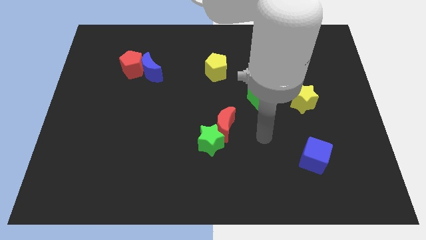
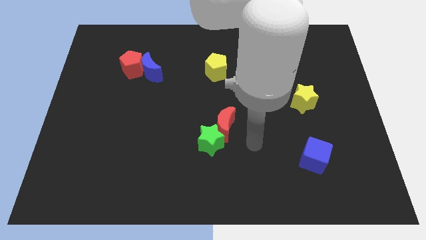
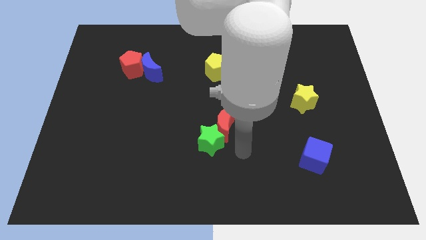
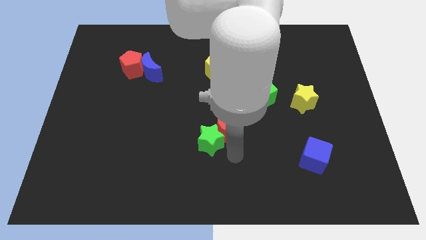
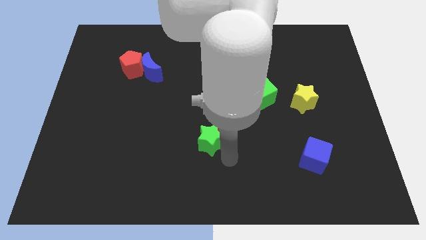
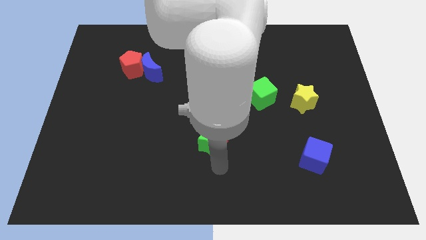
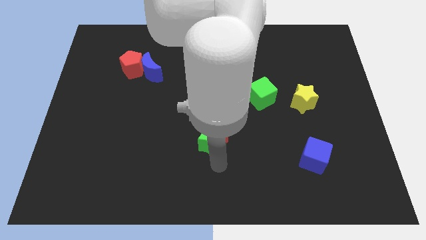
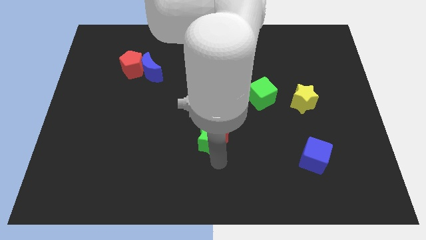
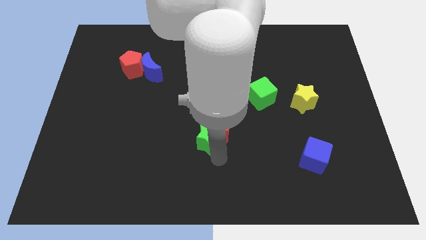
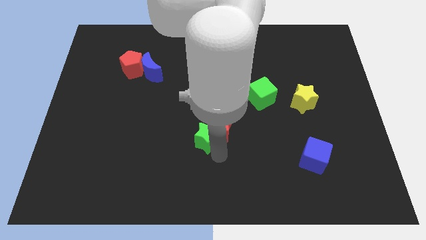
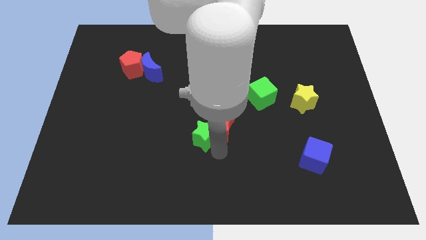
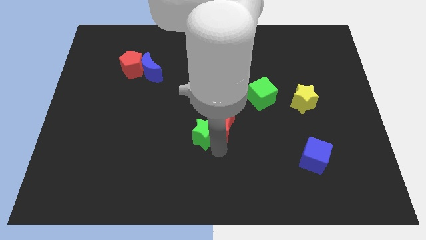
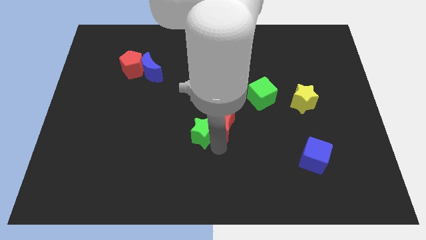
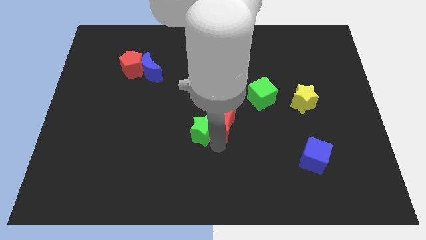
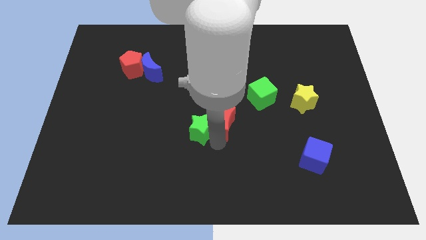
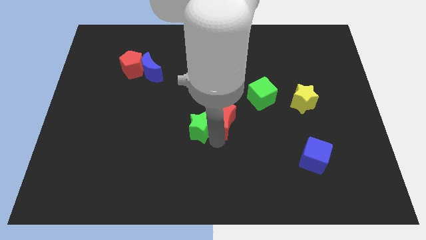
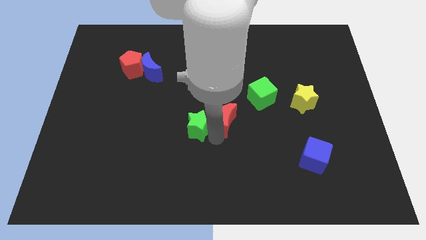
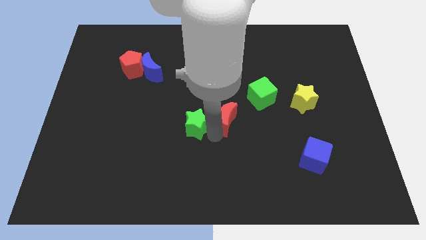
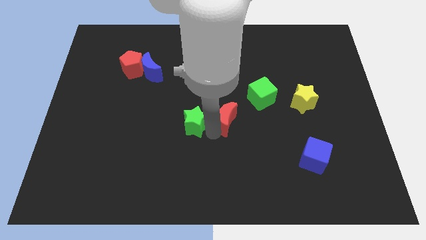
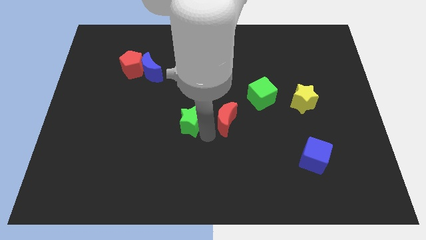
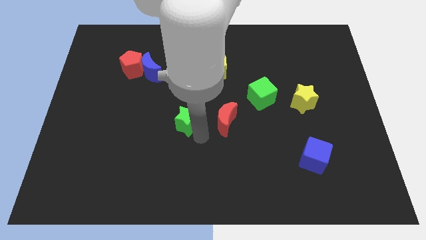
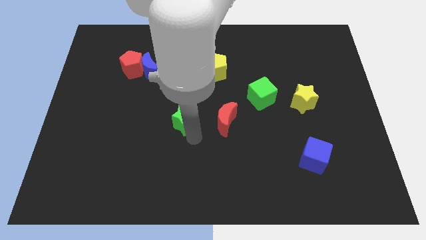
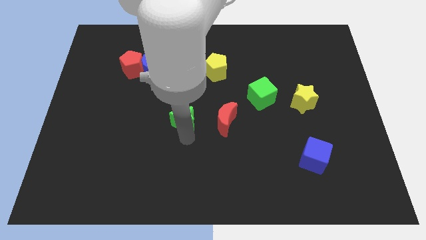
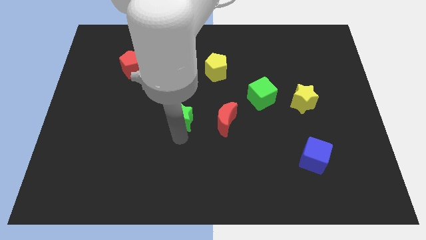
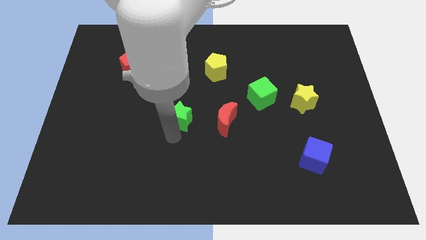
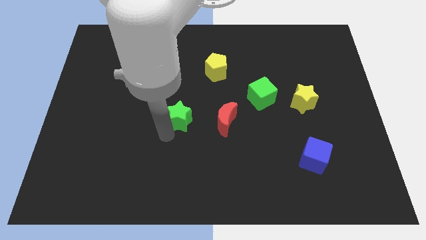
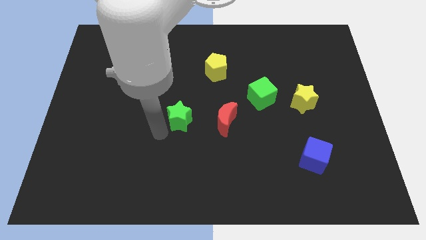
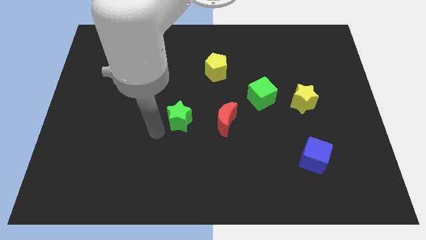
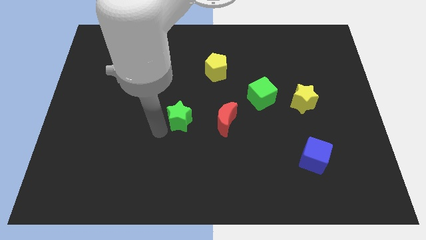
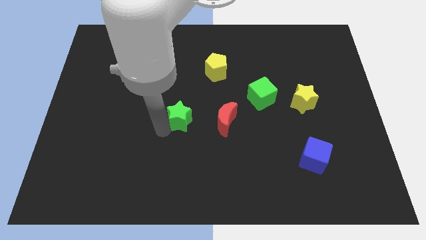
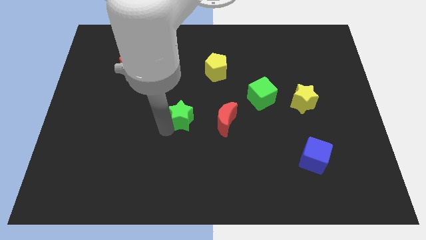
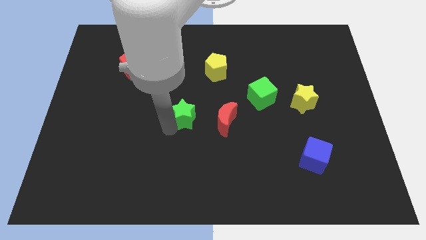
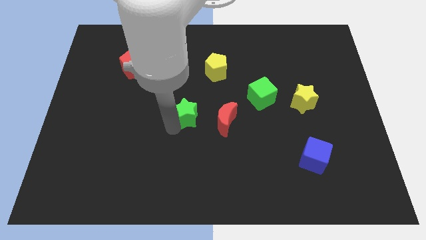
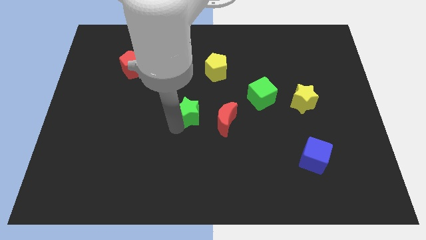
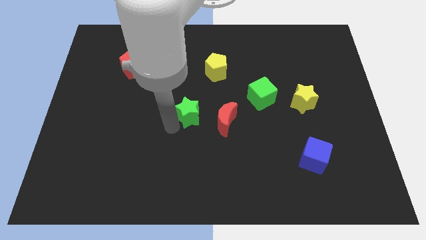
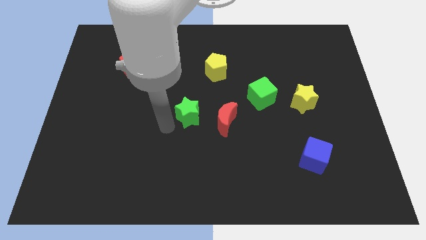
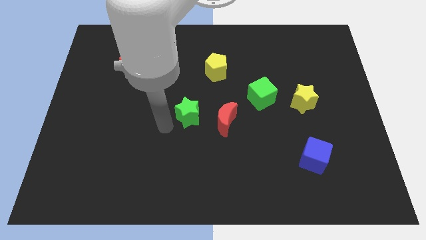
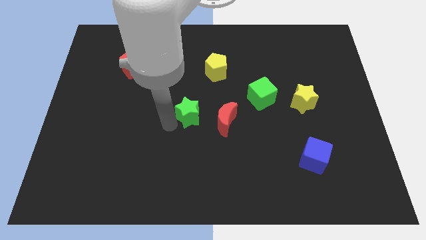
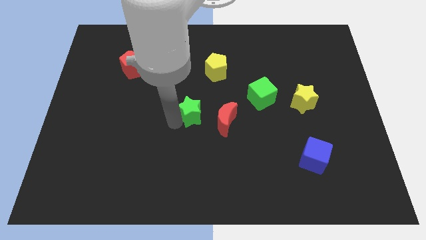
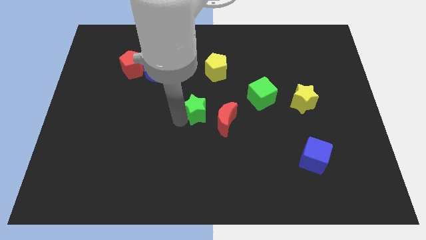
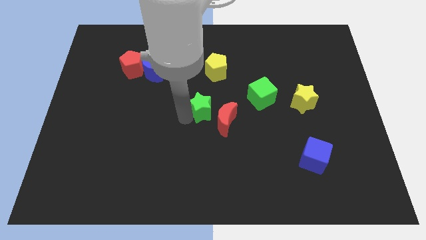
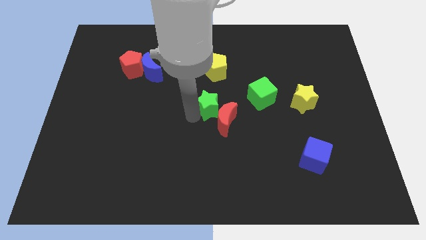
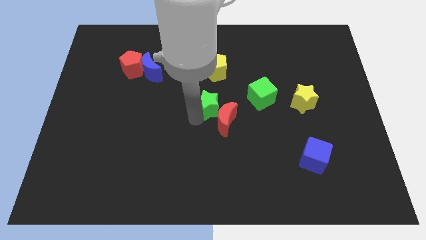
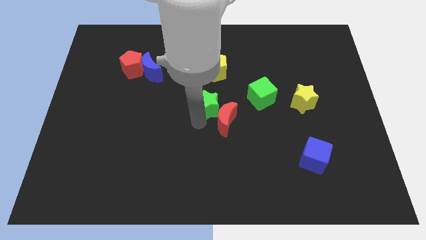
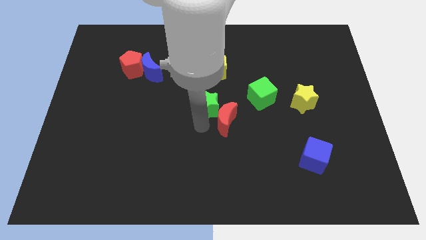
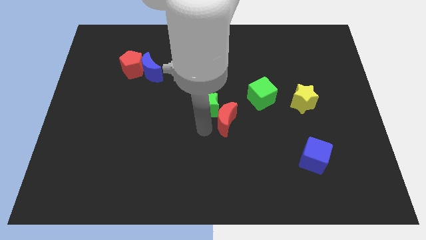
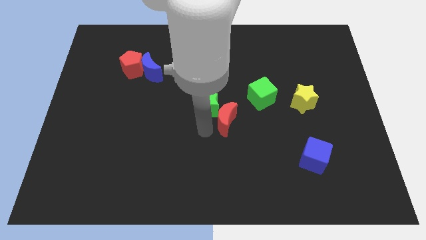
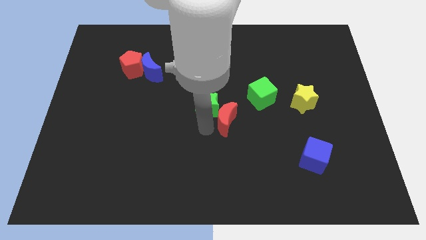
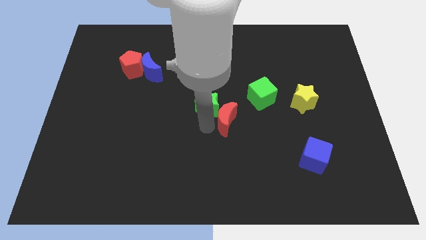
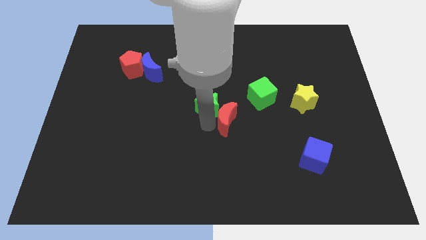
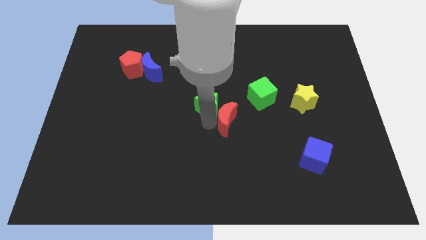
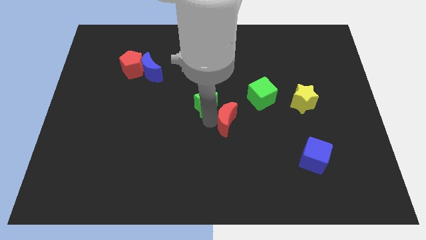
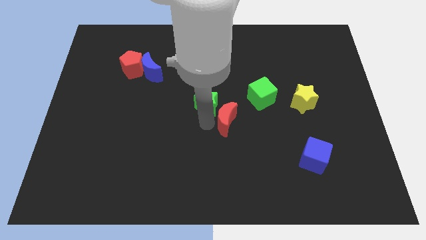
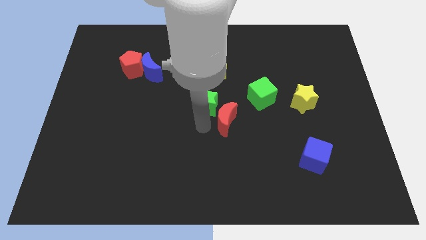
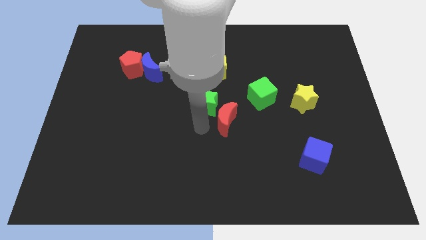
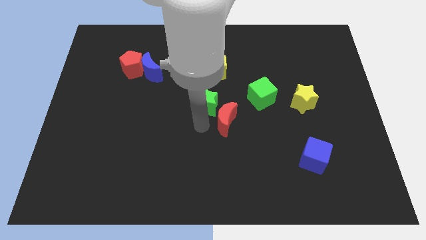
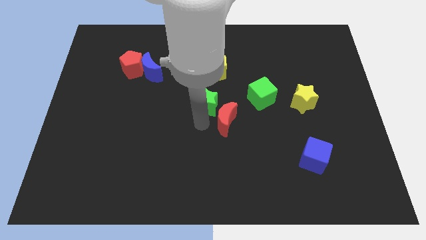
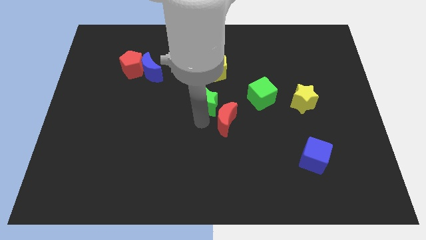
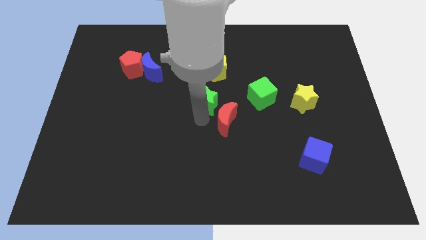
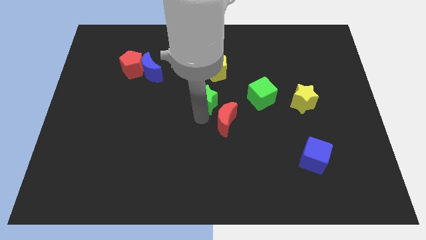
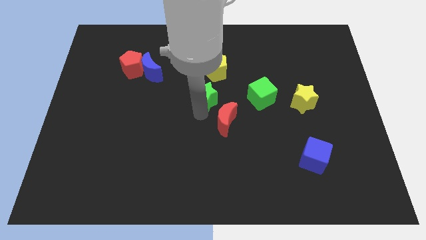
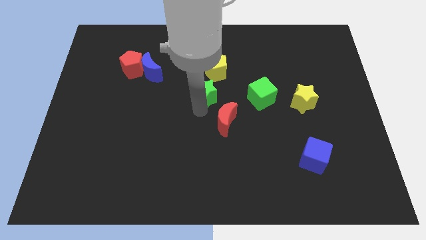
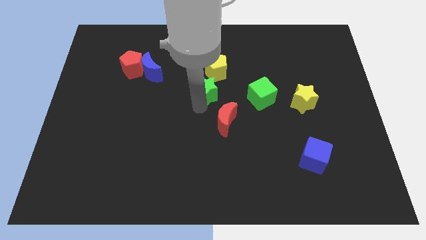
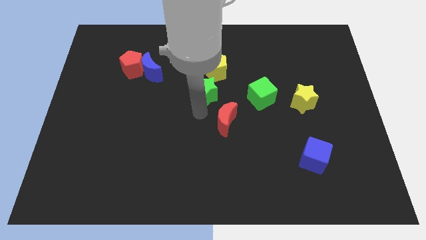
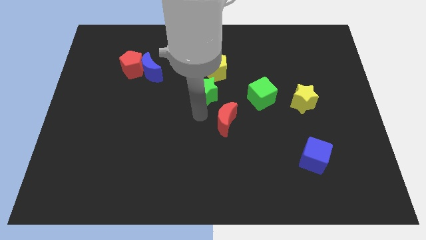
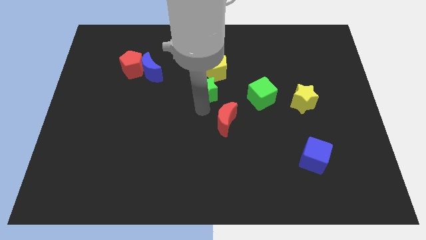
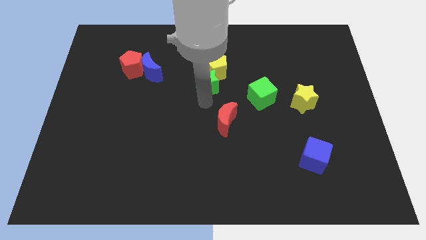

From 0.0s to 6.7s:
move the green star towards the yellow pentagon
